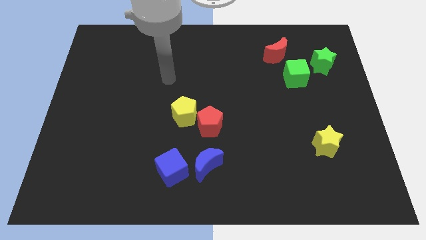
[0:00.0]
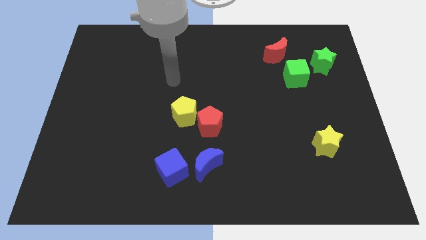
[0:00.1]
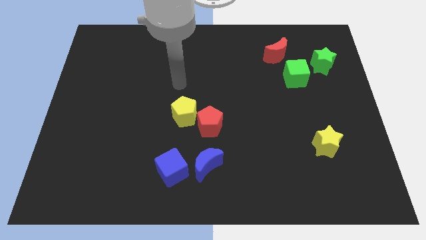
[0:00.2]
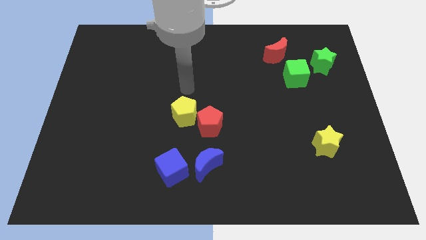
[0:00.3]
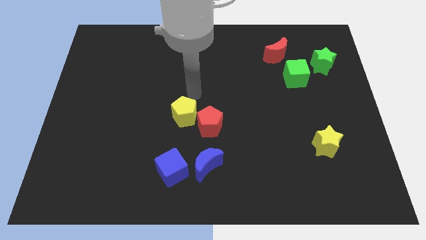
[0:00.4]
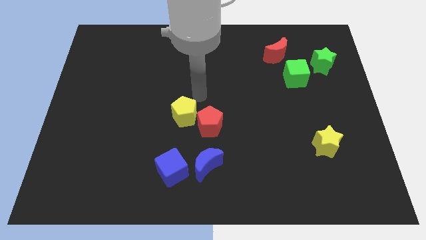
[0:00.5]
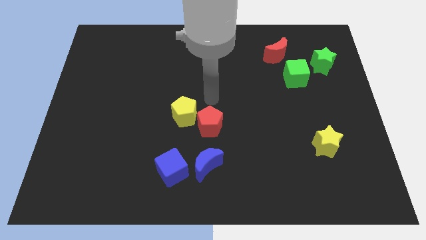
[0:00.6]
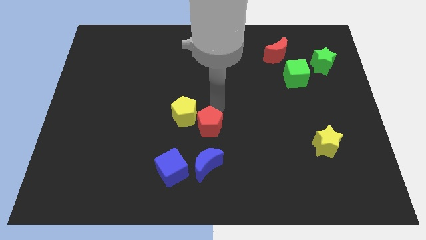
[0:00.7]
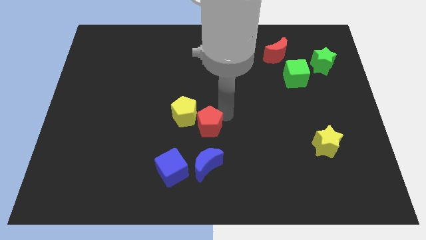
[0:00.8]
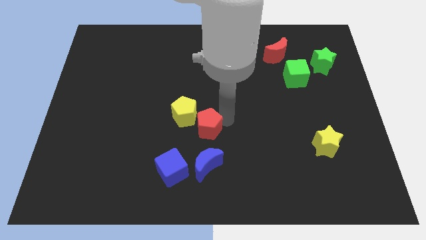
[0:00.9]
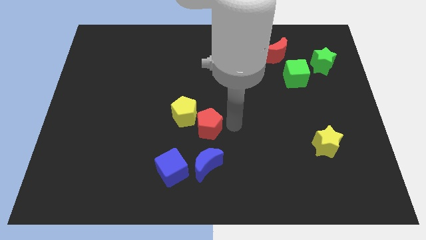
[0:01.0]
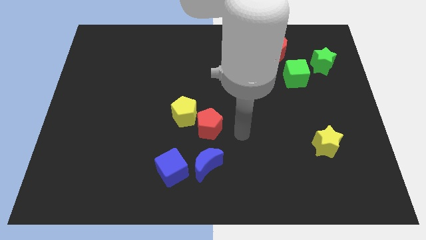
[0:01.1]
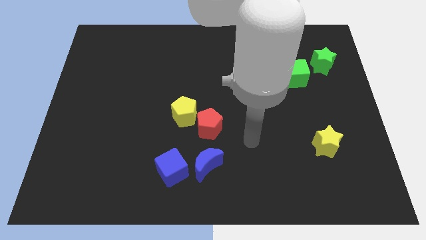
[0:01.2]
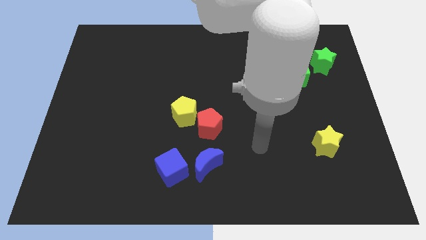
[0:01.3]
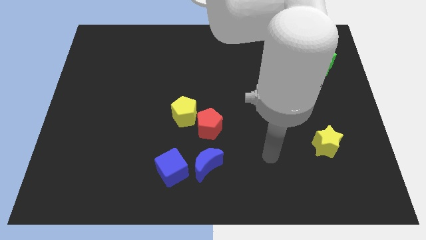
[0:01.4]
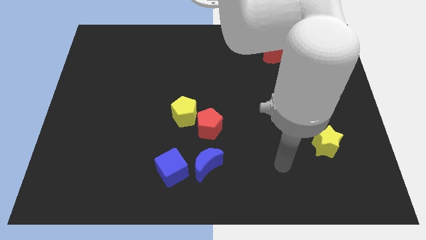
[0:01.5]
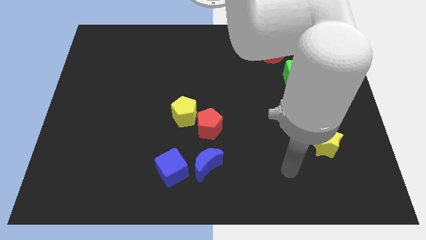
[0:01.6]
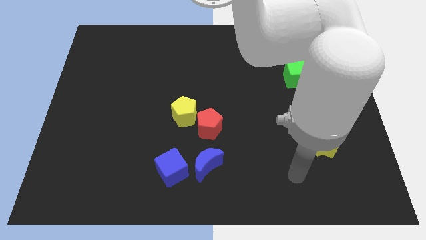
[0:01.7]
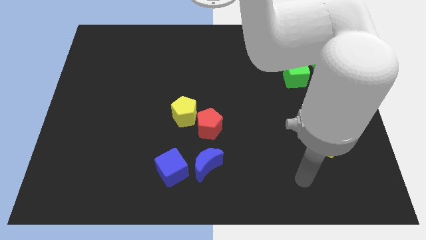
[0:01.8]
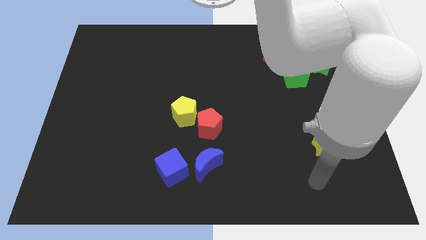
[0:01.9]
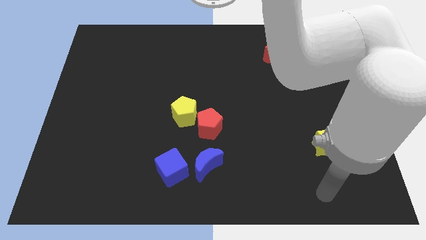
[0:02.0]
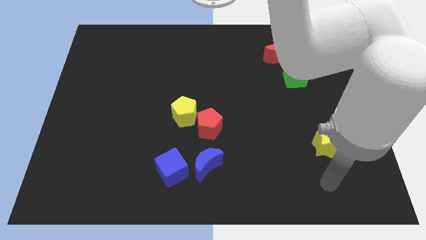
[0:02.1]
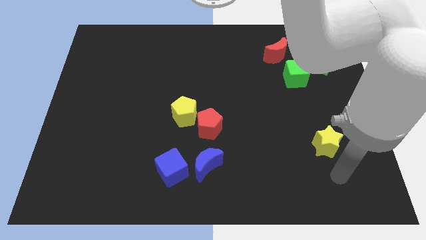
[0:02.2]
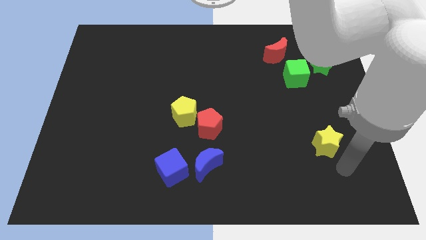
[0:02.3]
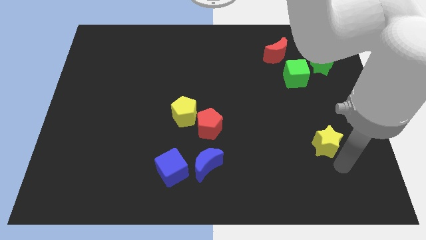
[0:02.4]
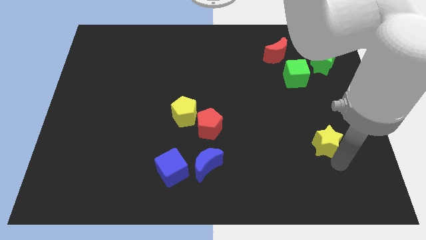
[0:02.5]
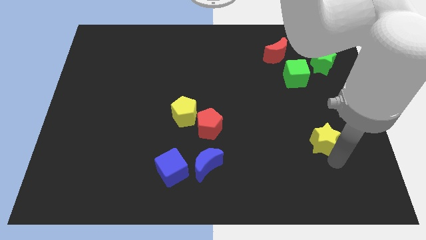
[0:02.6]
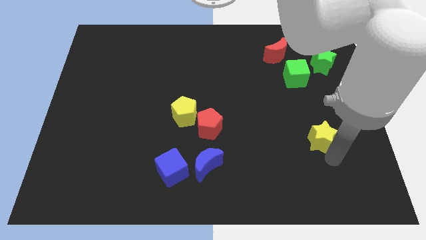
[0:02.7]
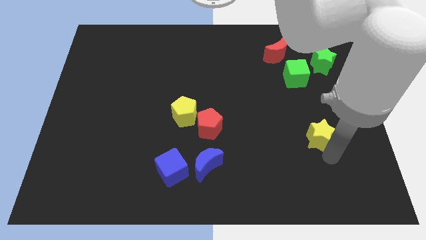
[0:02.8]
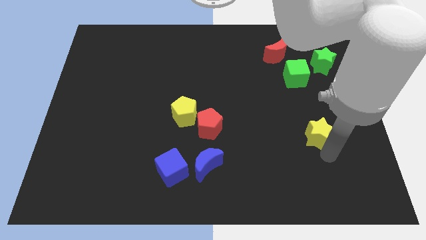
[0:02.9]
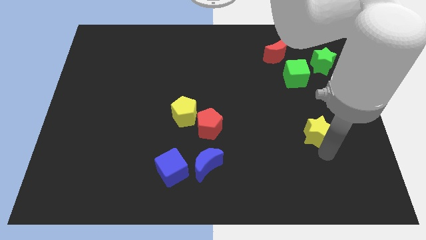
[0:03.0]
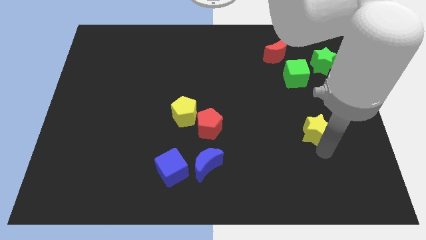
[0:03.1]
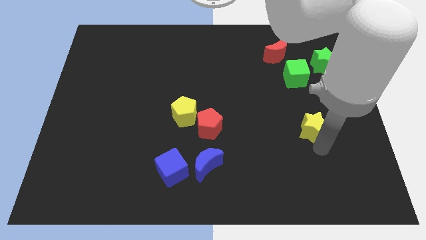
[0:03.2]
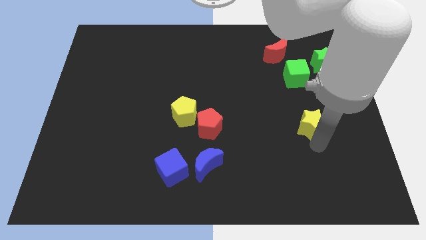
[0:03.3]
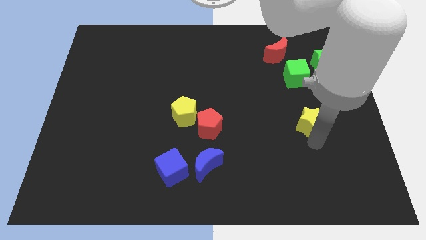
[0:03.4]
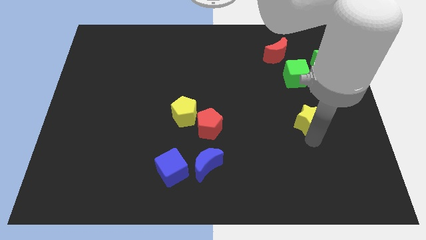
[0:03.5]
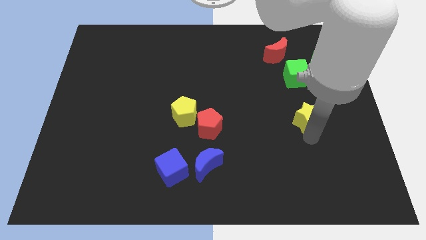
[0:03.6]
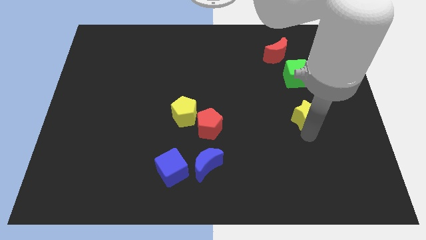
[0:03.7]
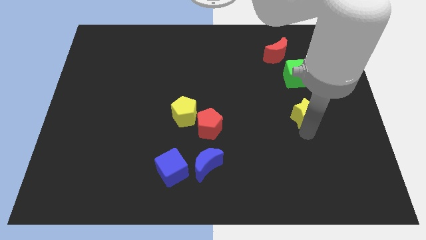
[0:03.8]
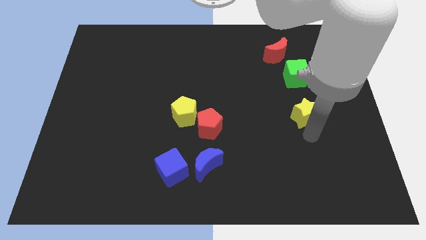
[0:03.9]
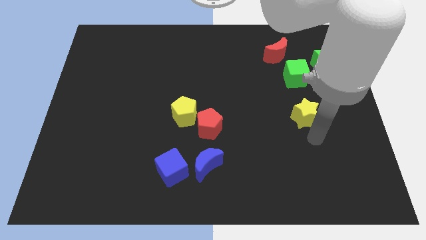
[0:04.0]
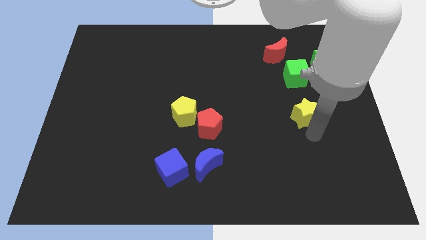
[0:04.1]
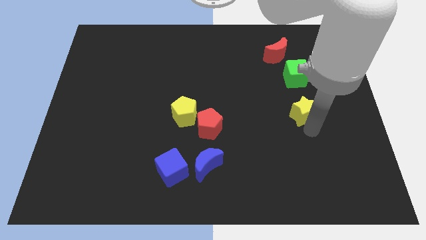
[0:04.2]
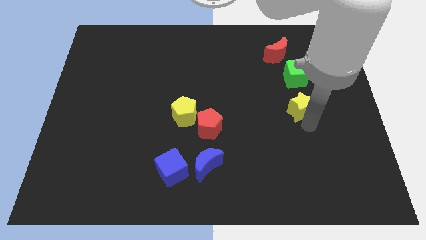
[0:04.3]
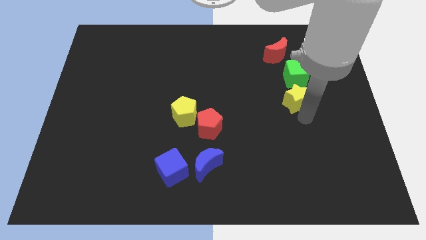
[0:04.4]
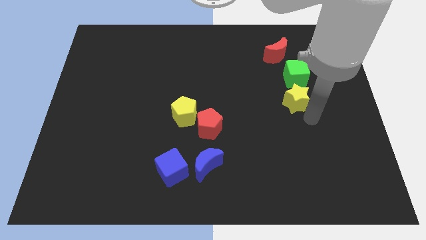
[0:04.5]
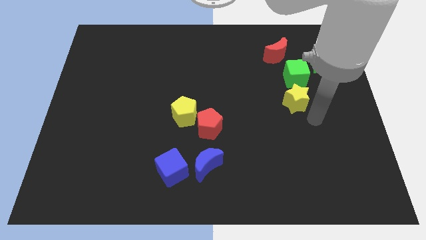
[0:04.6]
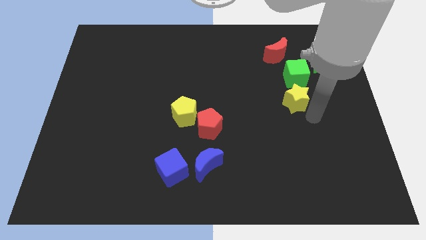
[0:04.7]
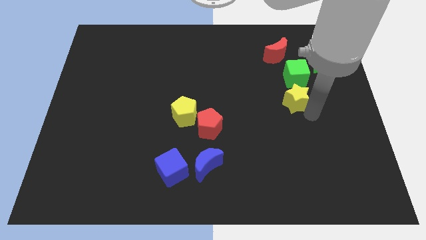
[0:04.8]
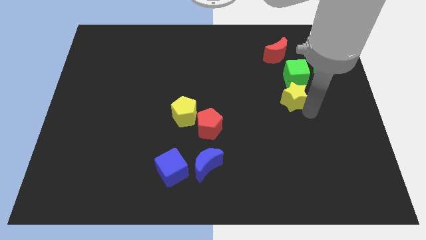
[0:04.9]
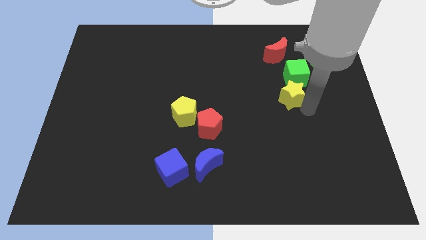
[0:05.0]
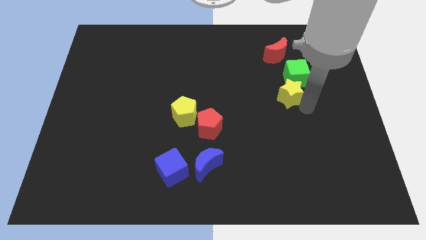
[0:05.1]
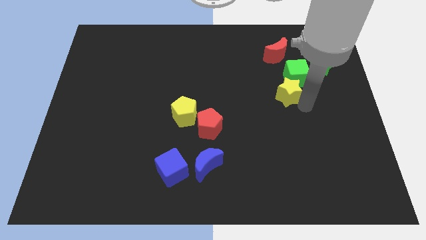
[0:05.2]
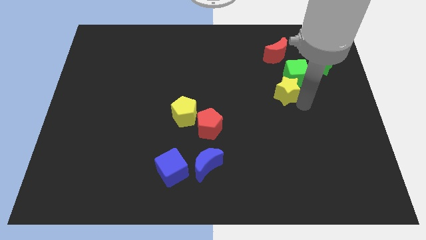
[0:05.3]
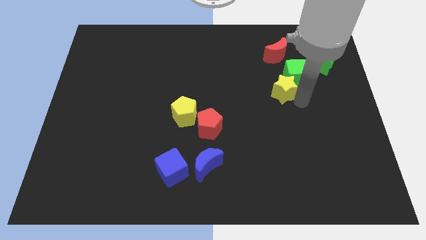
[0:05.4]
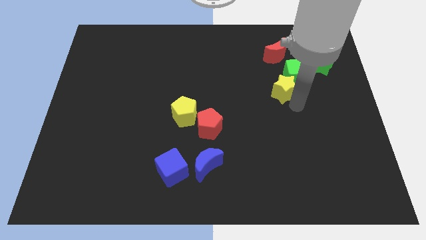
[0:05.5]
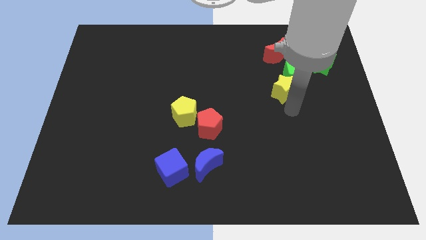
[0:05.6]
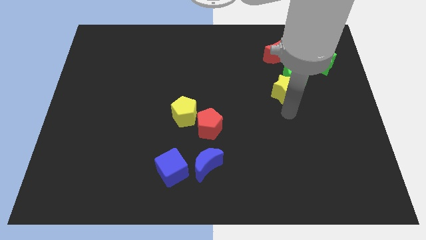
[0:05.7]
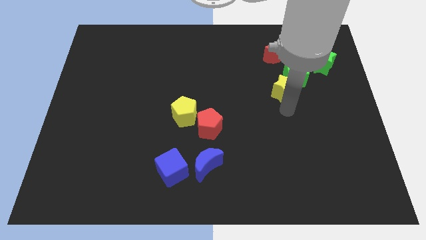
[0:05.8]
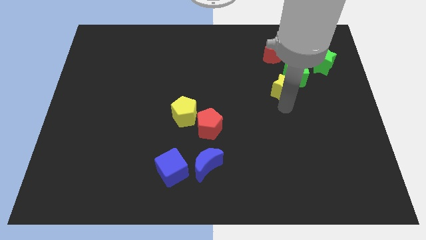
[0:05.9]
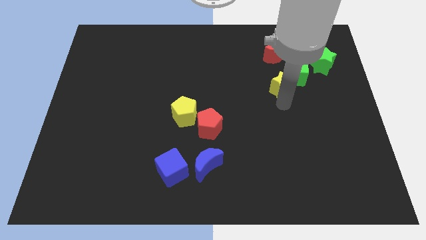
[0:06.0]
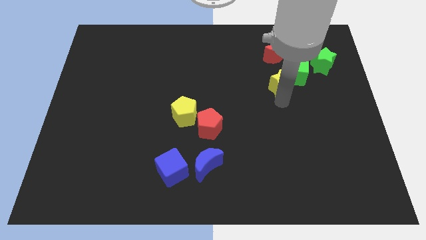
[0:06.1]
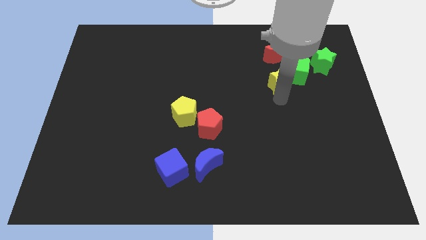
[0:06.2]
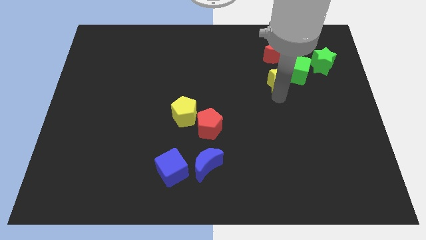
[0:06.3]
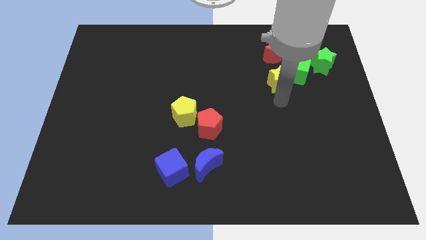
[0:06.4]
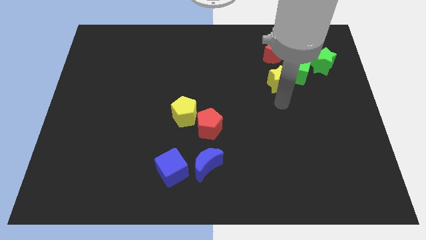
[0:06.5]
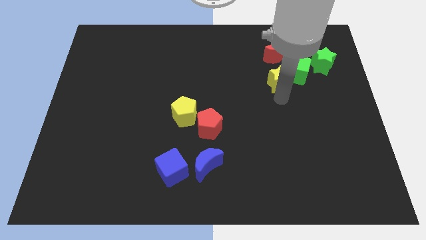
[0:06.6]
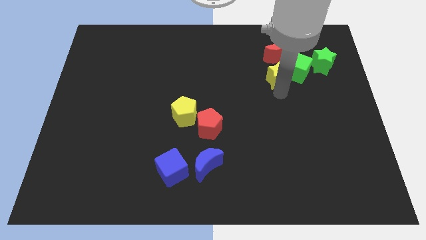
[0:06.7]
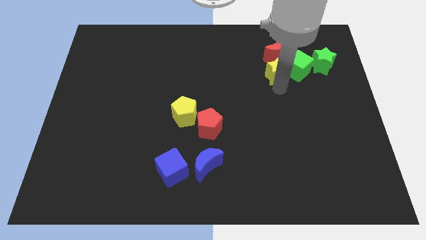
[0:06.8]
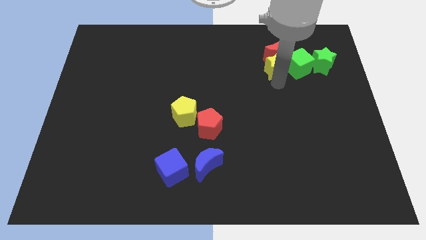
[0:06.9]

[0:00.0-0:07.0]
put the yellow star to the red moon

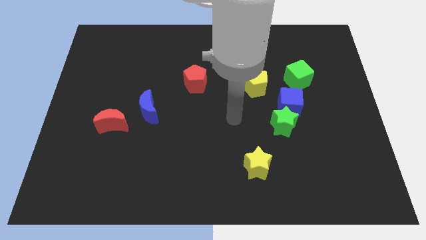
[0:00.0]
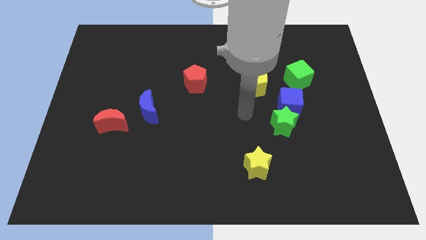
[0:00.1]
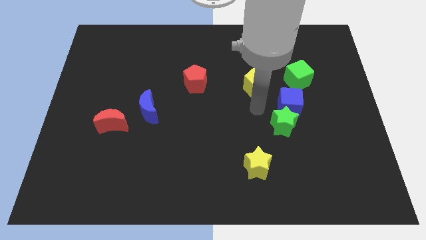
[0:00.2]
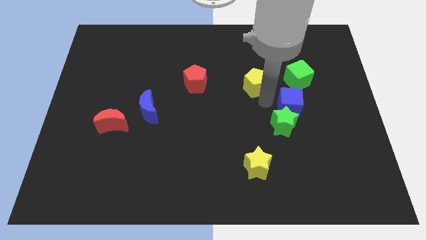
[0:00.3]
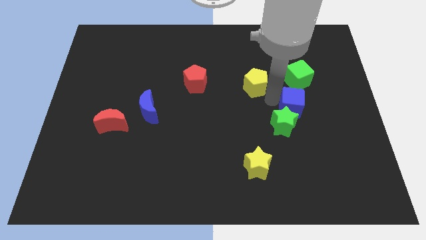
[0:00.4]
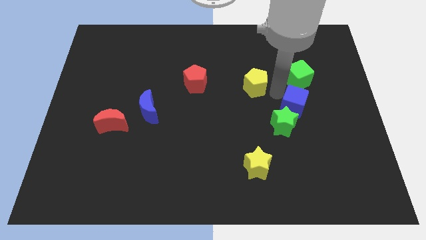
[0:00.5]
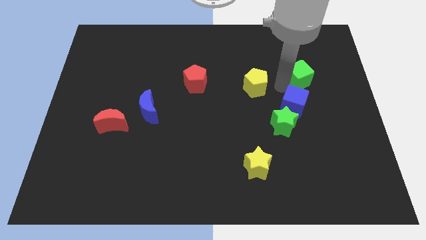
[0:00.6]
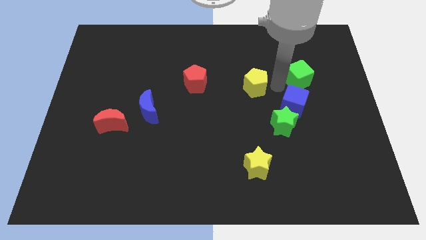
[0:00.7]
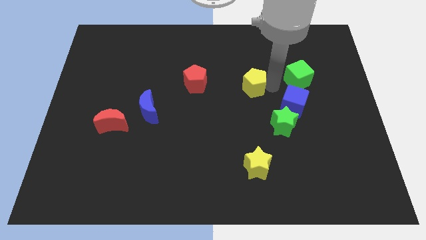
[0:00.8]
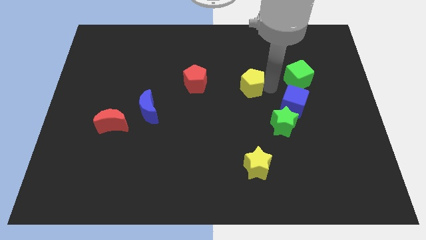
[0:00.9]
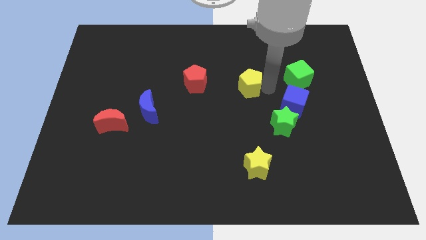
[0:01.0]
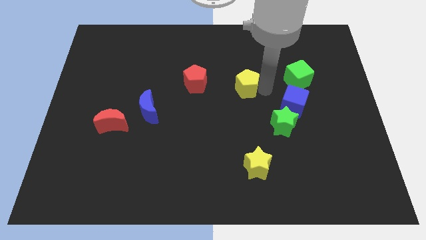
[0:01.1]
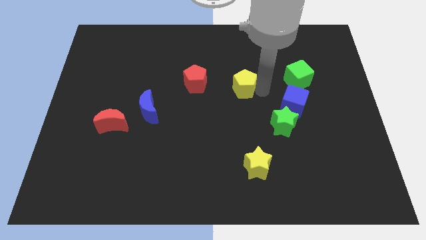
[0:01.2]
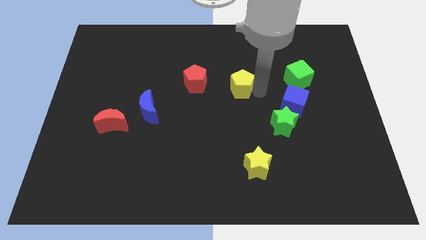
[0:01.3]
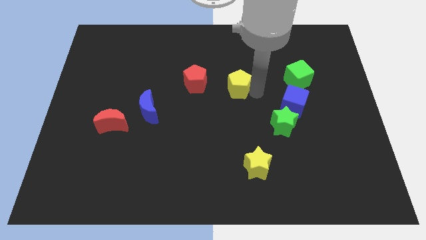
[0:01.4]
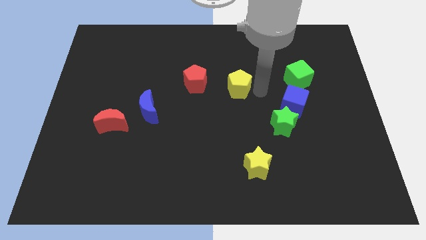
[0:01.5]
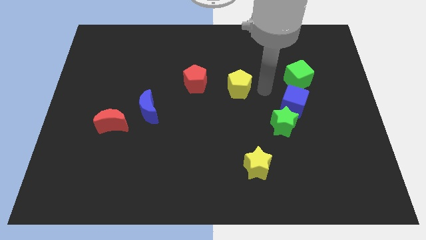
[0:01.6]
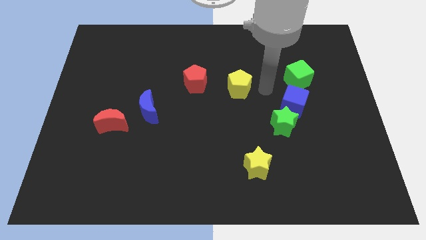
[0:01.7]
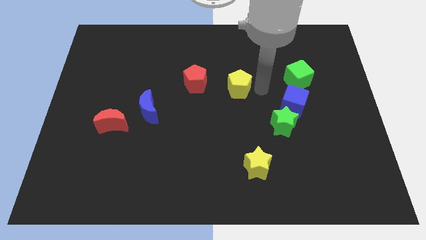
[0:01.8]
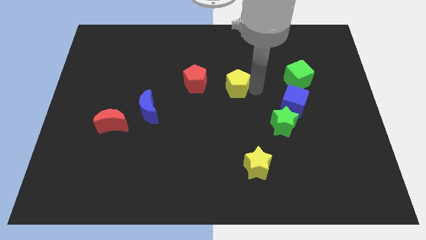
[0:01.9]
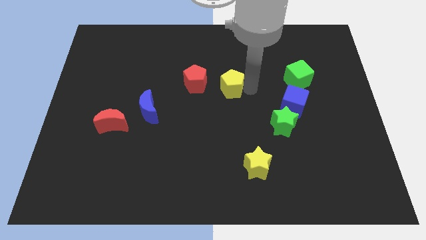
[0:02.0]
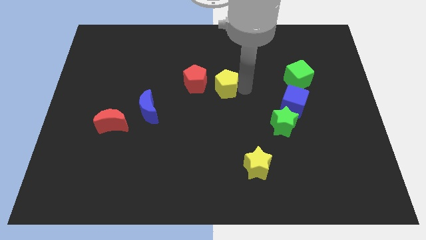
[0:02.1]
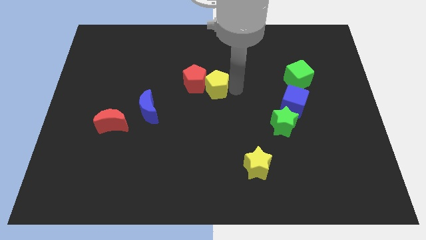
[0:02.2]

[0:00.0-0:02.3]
move the yellow pentagon next to the red pentagon
